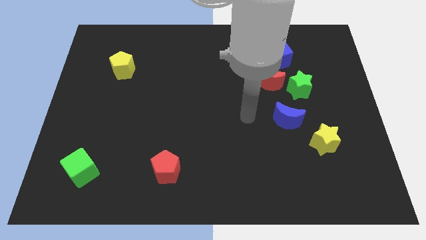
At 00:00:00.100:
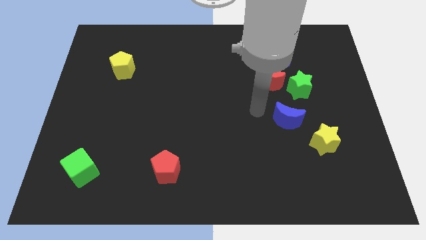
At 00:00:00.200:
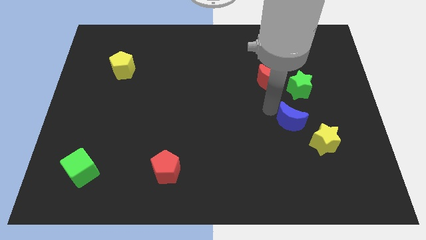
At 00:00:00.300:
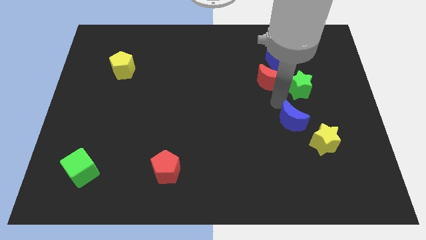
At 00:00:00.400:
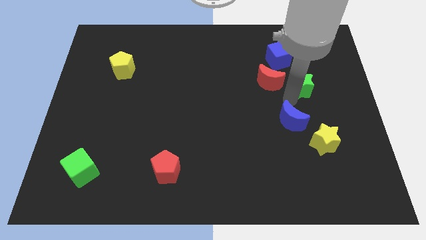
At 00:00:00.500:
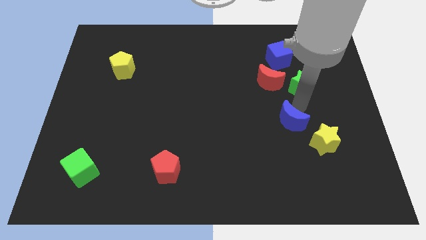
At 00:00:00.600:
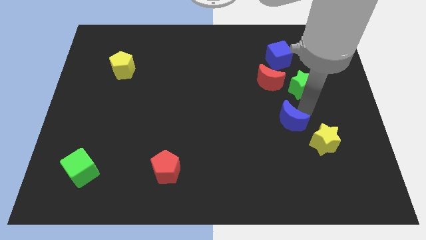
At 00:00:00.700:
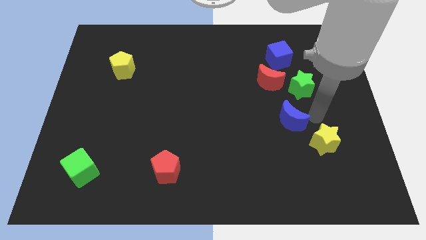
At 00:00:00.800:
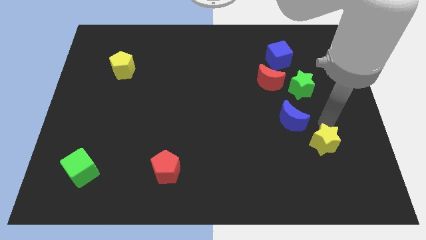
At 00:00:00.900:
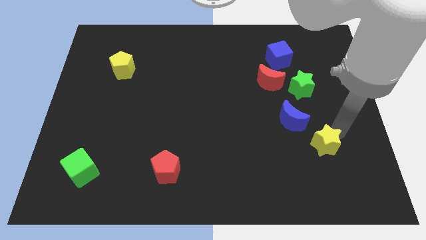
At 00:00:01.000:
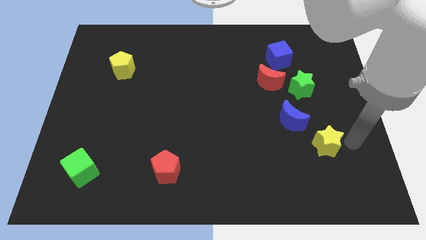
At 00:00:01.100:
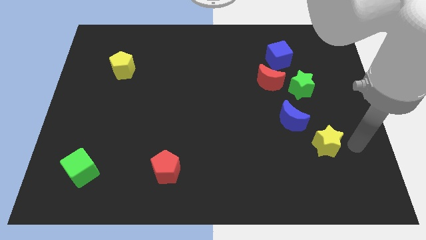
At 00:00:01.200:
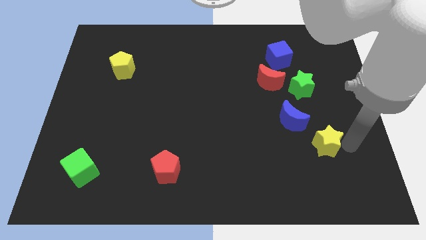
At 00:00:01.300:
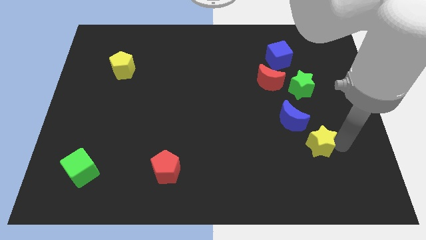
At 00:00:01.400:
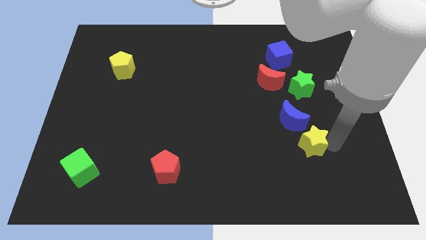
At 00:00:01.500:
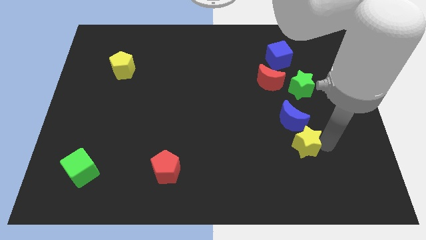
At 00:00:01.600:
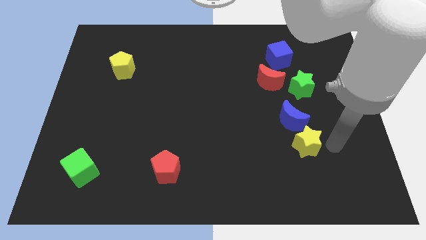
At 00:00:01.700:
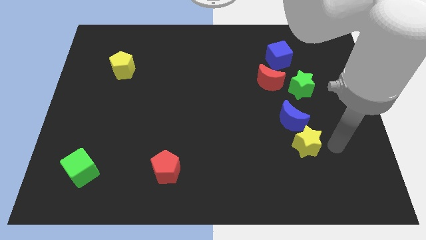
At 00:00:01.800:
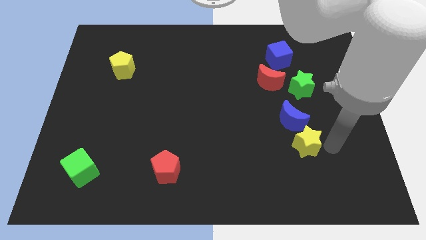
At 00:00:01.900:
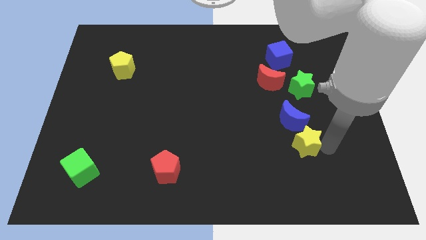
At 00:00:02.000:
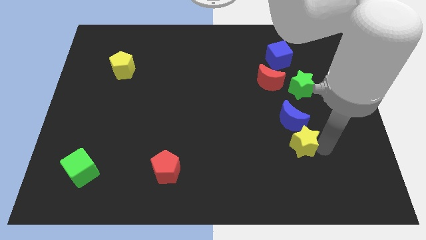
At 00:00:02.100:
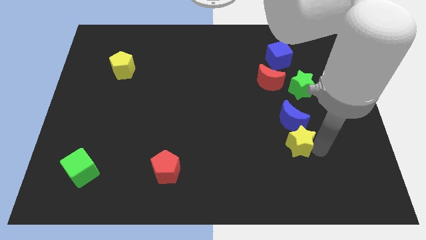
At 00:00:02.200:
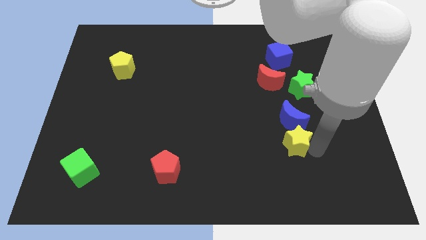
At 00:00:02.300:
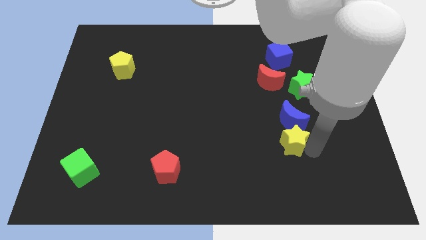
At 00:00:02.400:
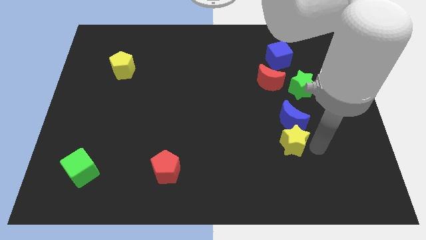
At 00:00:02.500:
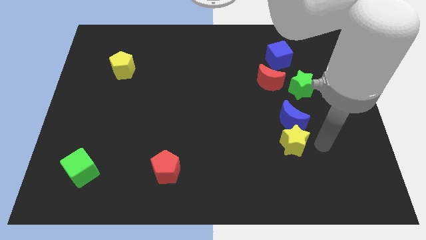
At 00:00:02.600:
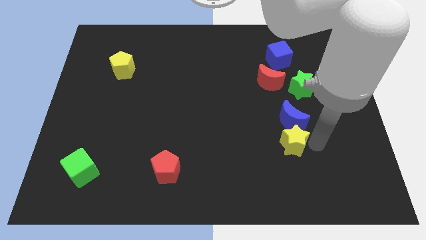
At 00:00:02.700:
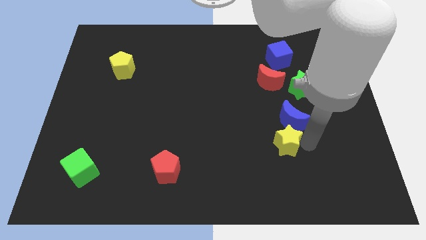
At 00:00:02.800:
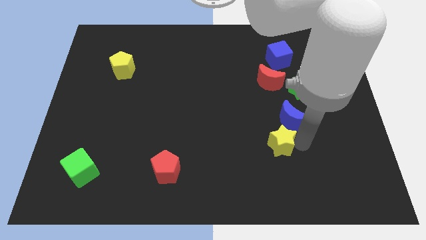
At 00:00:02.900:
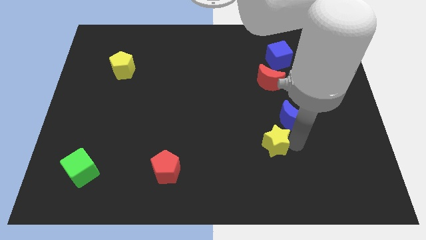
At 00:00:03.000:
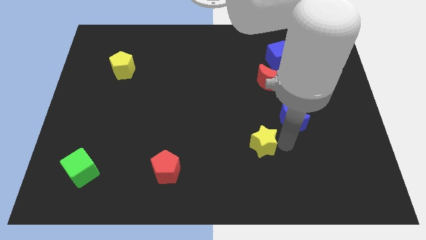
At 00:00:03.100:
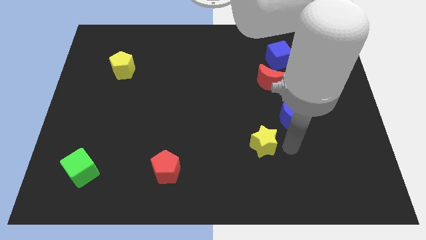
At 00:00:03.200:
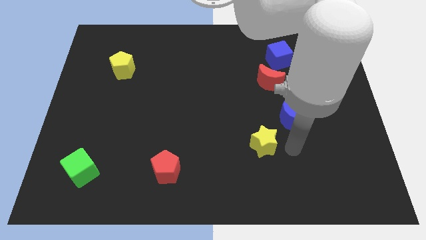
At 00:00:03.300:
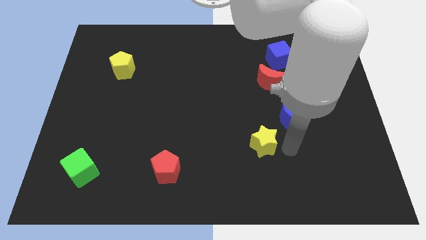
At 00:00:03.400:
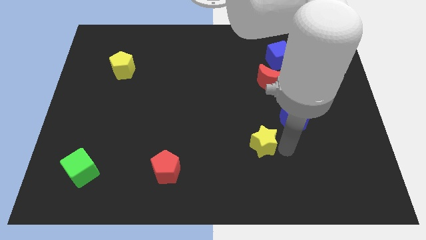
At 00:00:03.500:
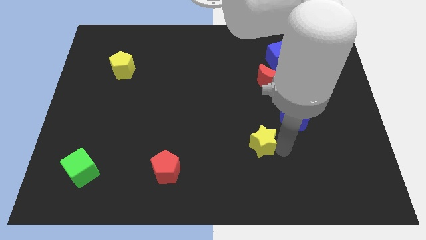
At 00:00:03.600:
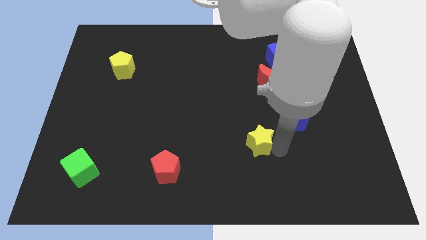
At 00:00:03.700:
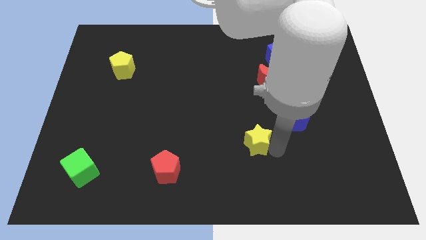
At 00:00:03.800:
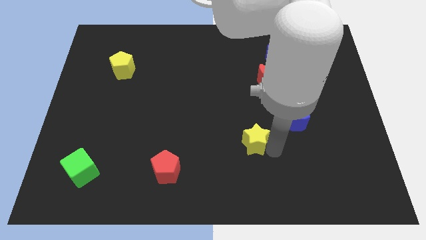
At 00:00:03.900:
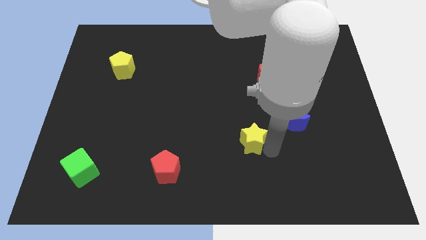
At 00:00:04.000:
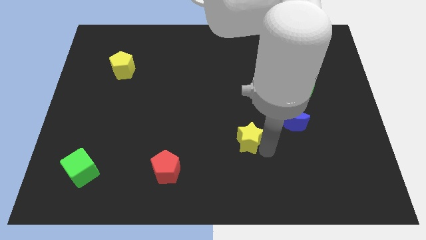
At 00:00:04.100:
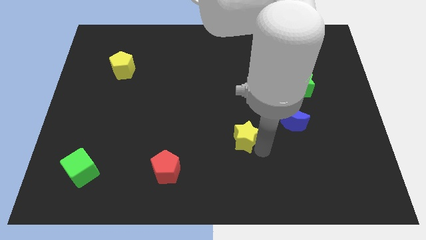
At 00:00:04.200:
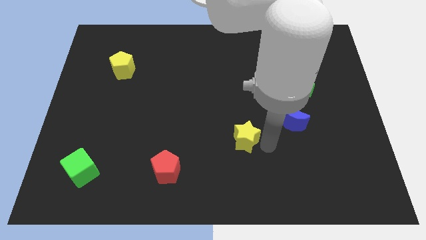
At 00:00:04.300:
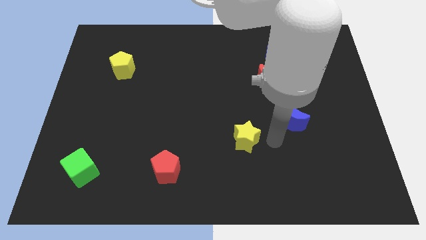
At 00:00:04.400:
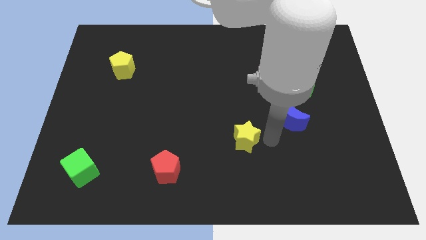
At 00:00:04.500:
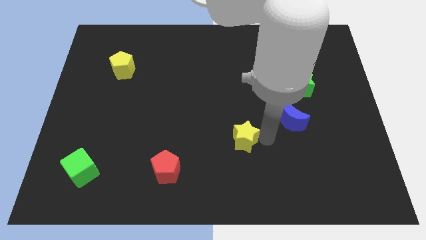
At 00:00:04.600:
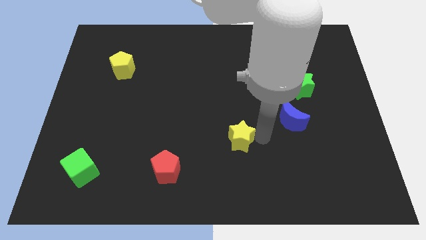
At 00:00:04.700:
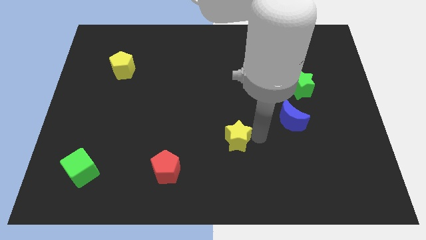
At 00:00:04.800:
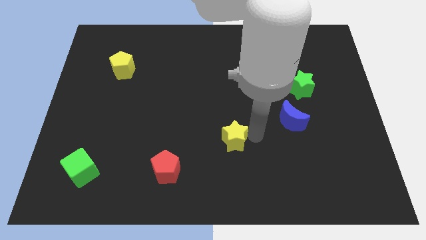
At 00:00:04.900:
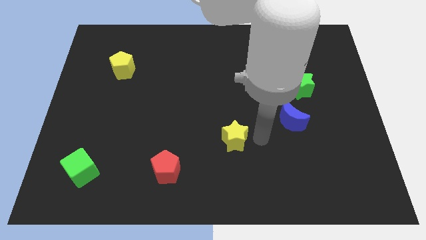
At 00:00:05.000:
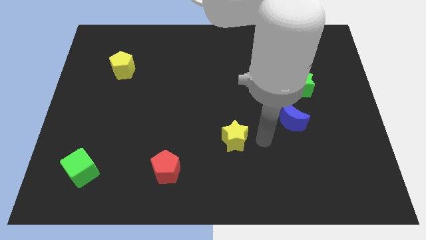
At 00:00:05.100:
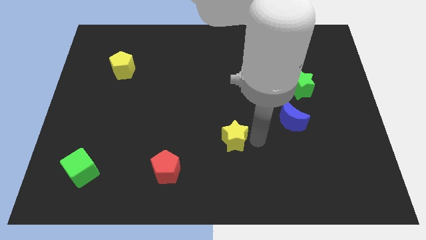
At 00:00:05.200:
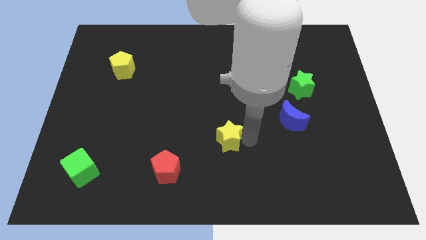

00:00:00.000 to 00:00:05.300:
move the yellow star to the left

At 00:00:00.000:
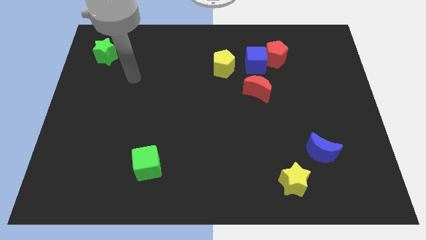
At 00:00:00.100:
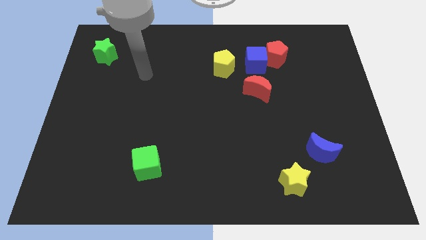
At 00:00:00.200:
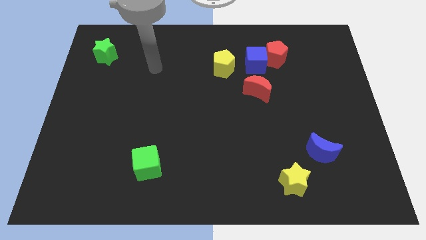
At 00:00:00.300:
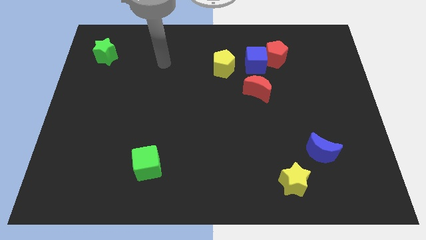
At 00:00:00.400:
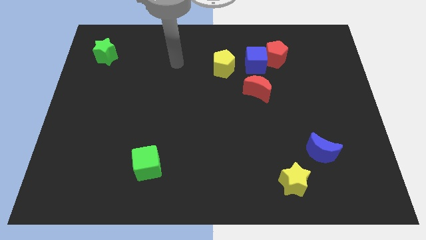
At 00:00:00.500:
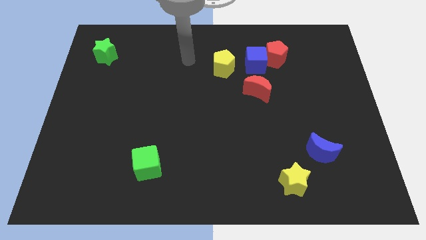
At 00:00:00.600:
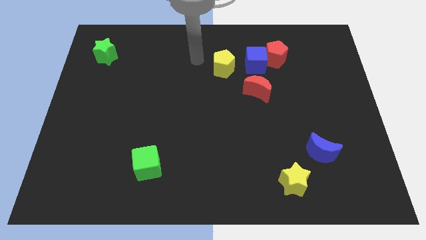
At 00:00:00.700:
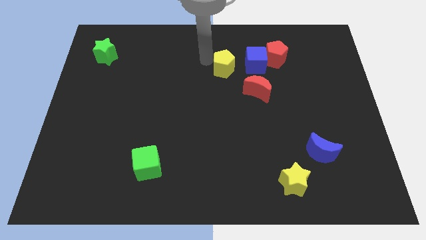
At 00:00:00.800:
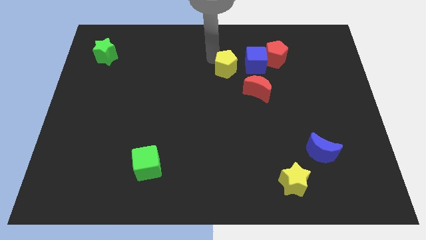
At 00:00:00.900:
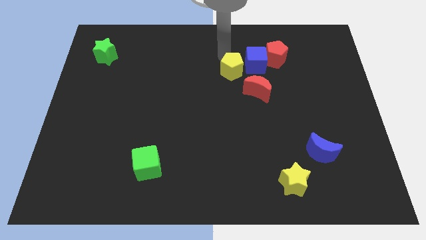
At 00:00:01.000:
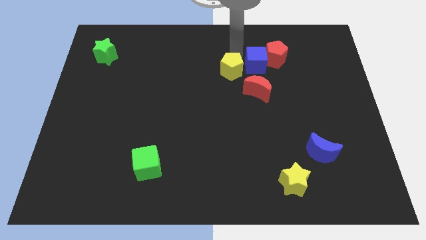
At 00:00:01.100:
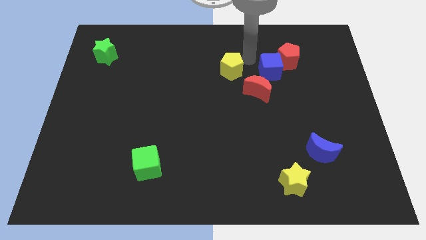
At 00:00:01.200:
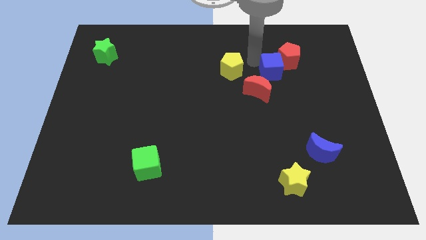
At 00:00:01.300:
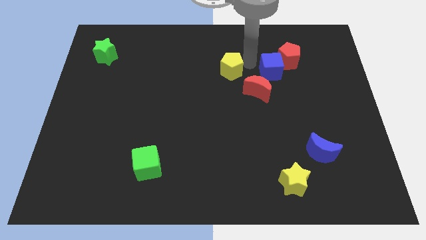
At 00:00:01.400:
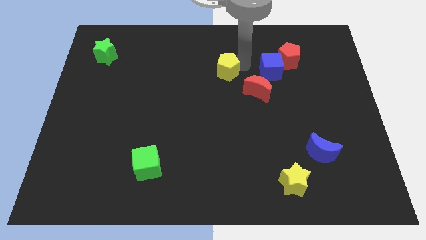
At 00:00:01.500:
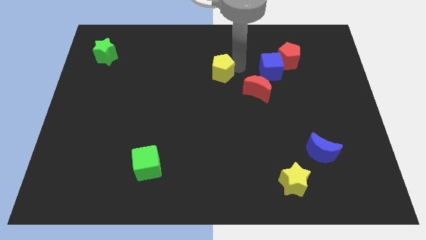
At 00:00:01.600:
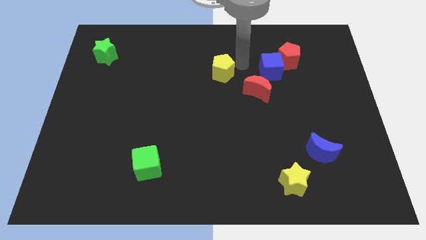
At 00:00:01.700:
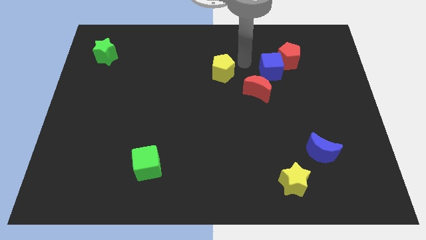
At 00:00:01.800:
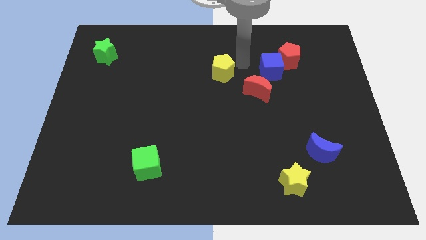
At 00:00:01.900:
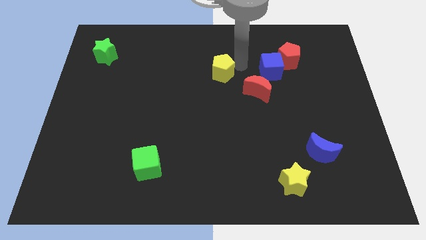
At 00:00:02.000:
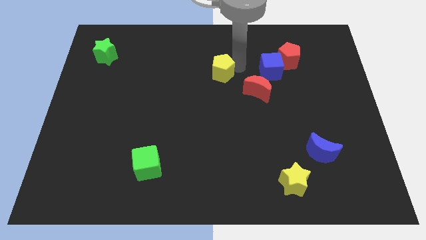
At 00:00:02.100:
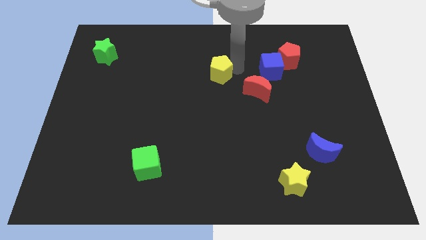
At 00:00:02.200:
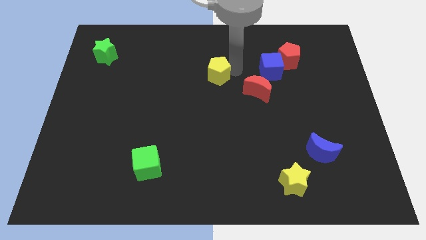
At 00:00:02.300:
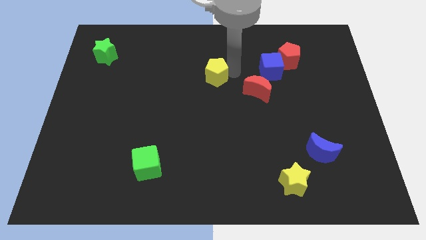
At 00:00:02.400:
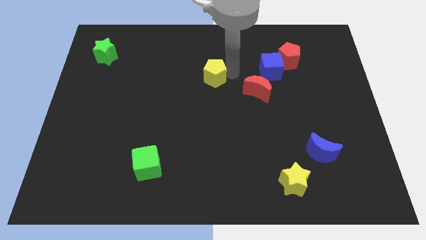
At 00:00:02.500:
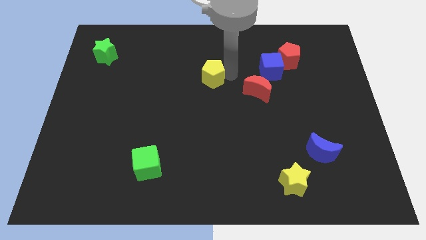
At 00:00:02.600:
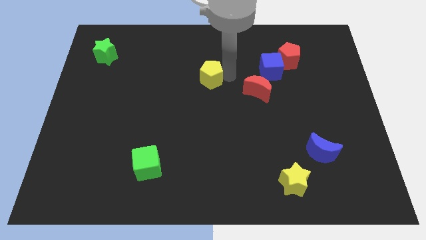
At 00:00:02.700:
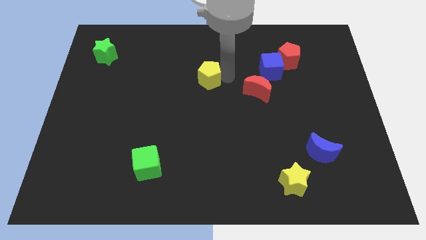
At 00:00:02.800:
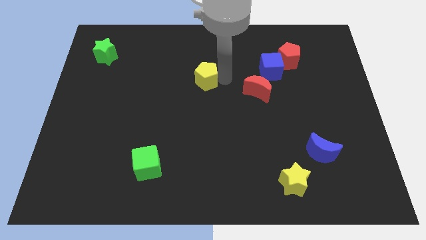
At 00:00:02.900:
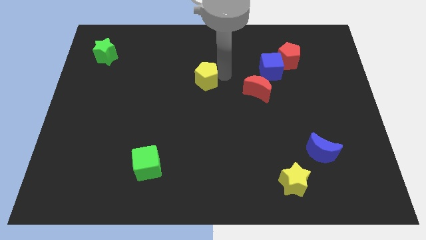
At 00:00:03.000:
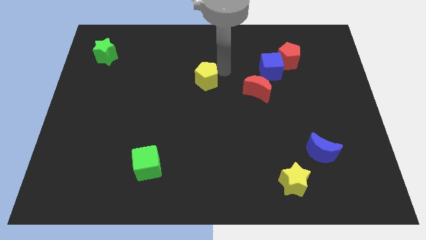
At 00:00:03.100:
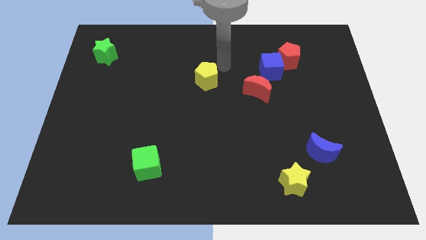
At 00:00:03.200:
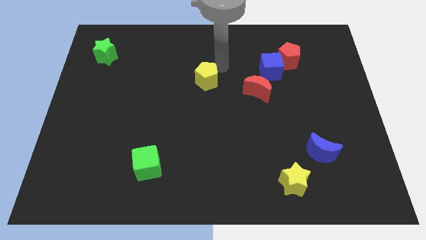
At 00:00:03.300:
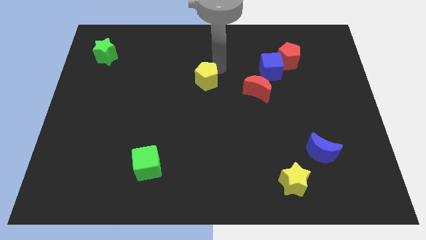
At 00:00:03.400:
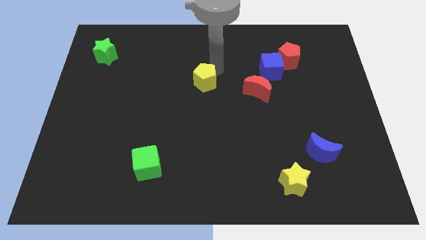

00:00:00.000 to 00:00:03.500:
push the yellow pentagon downwards and to the left diagonally somewhat
